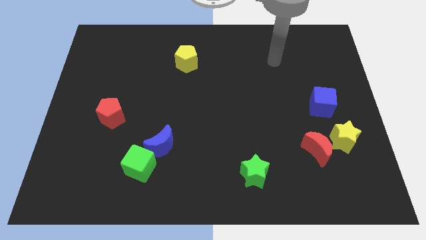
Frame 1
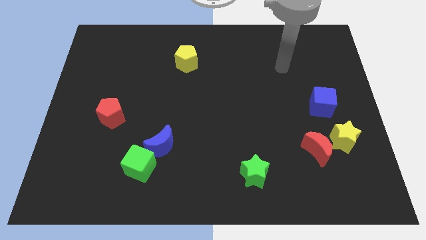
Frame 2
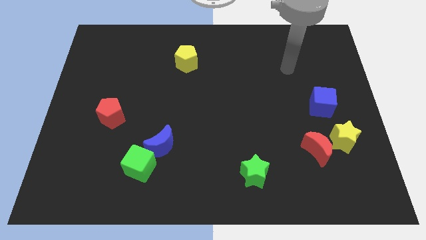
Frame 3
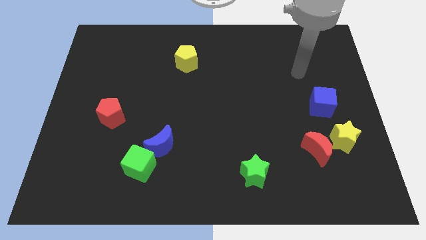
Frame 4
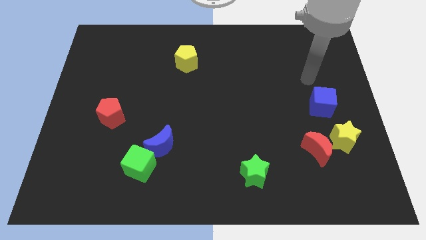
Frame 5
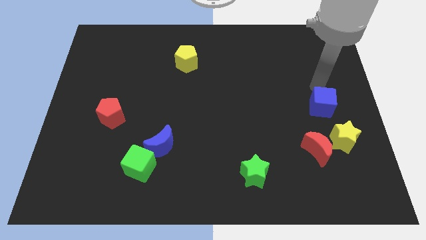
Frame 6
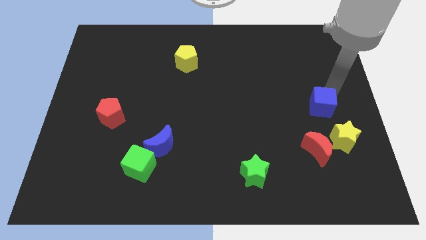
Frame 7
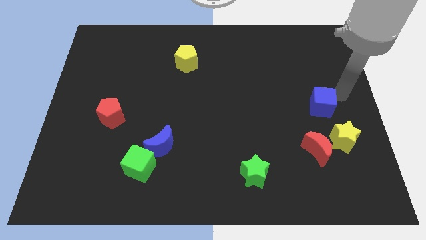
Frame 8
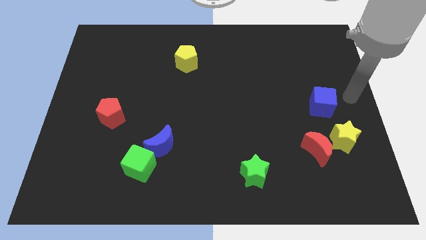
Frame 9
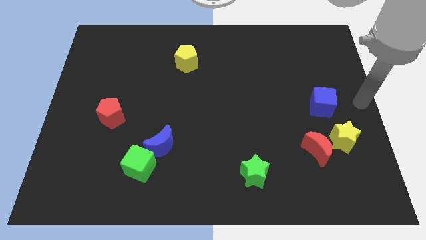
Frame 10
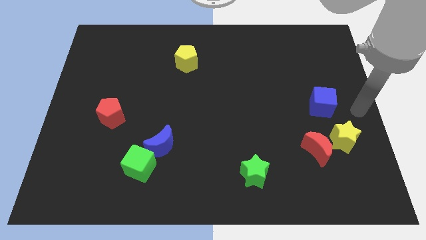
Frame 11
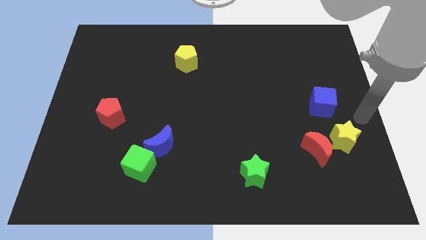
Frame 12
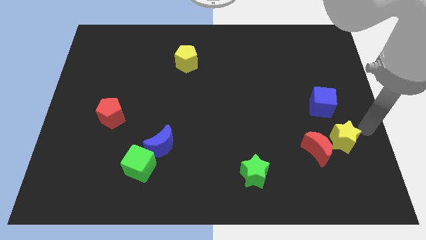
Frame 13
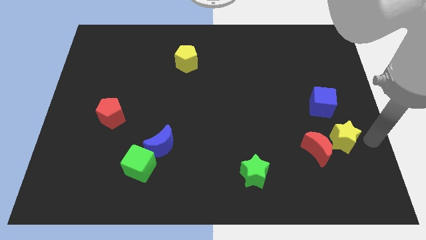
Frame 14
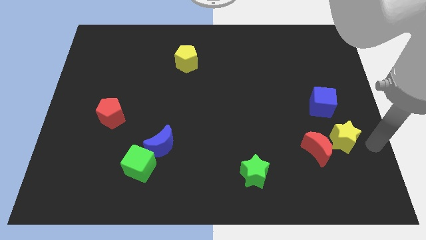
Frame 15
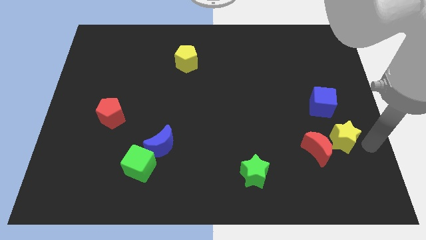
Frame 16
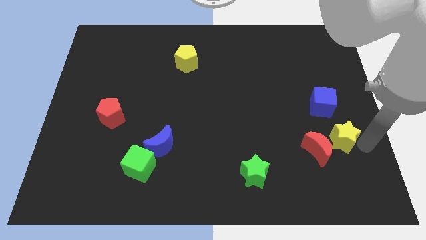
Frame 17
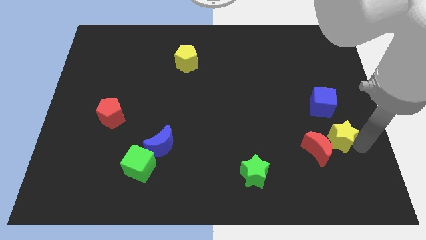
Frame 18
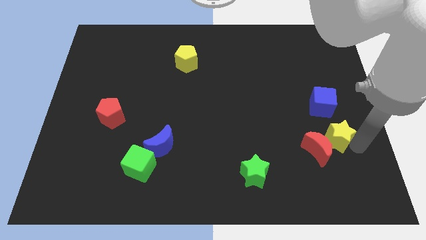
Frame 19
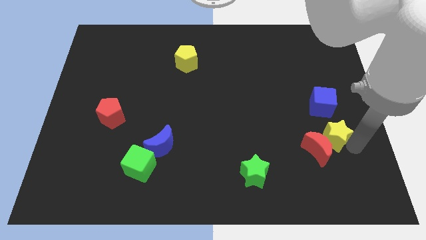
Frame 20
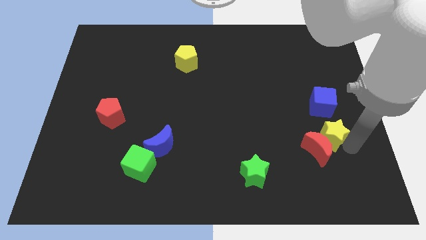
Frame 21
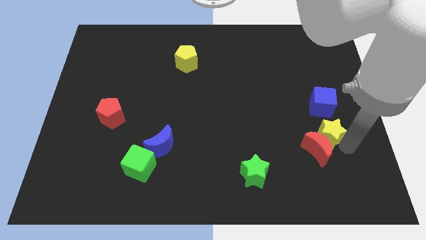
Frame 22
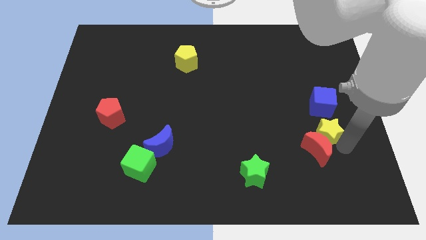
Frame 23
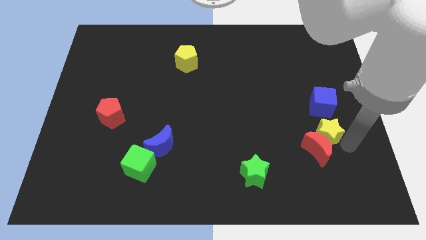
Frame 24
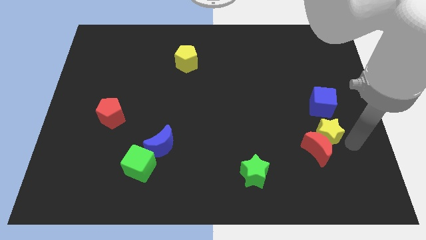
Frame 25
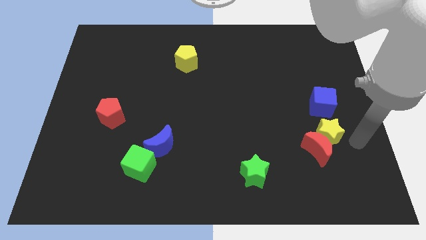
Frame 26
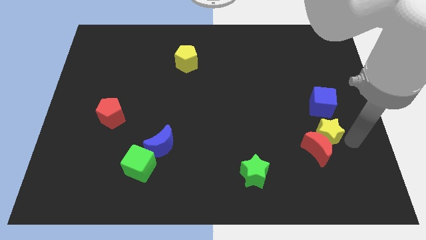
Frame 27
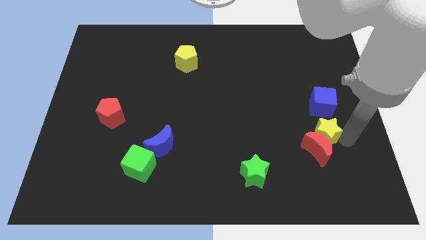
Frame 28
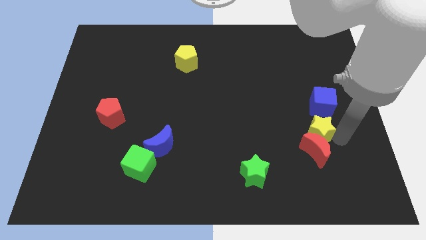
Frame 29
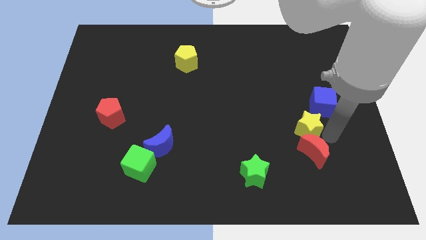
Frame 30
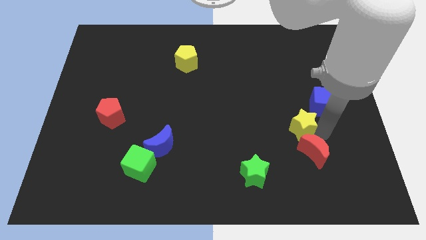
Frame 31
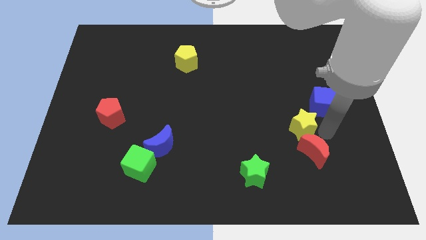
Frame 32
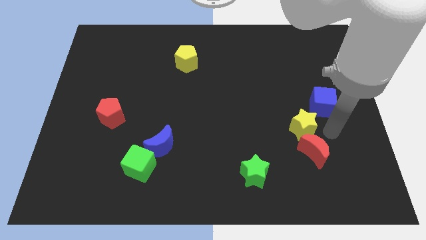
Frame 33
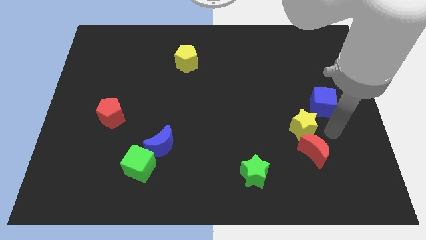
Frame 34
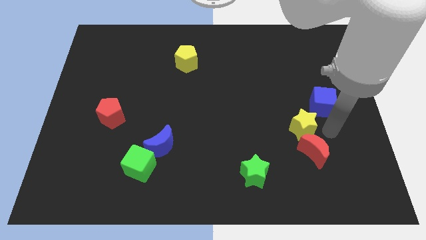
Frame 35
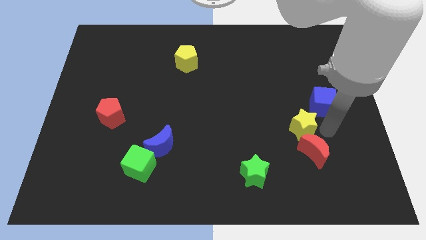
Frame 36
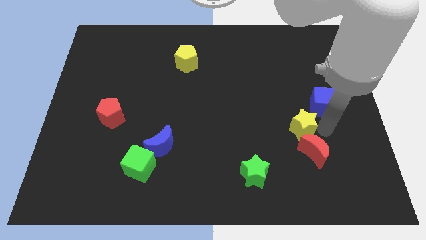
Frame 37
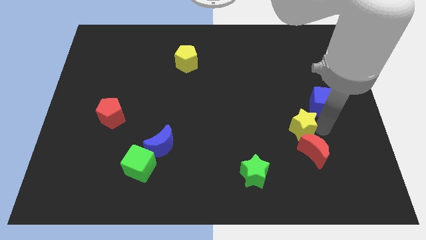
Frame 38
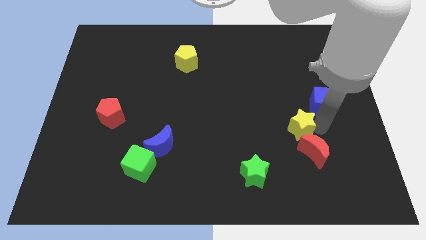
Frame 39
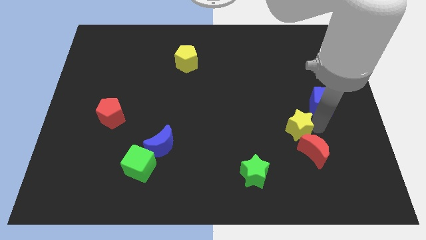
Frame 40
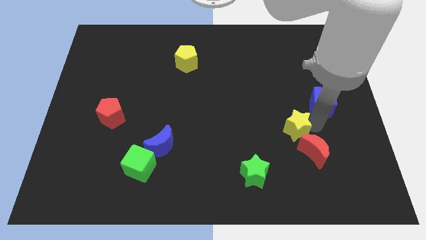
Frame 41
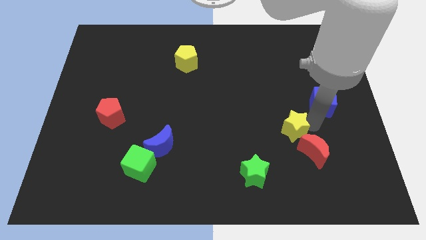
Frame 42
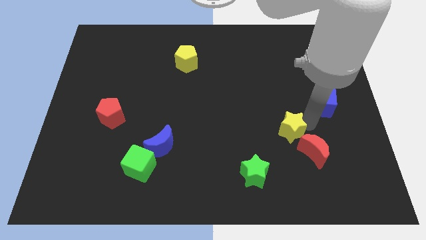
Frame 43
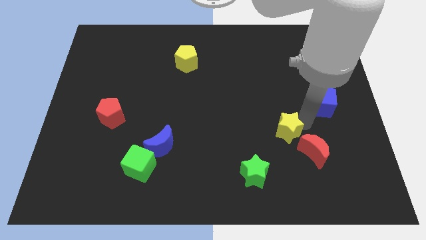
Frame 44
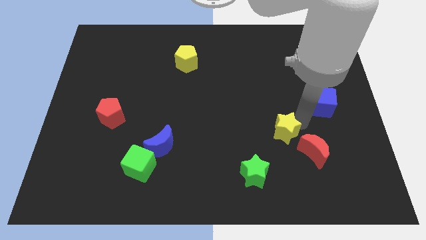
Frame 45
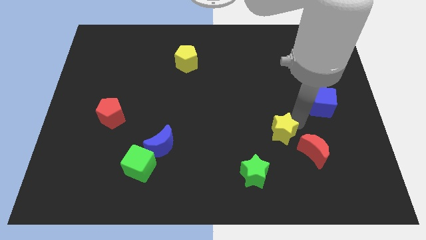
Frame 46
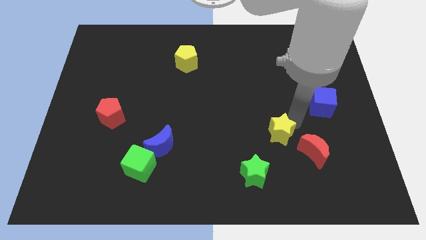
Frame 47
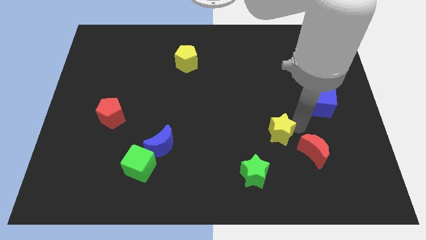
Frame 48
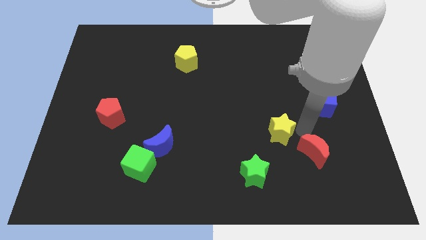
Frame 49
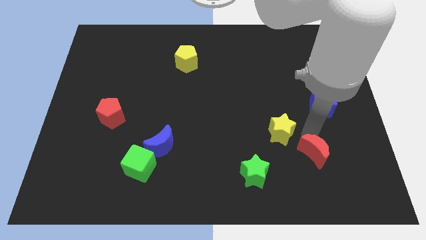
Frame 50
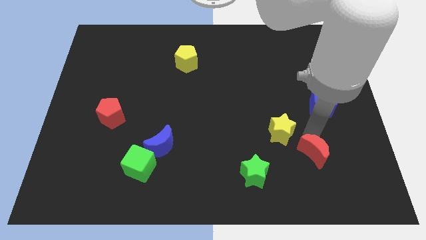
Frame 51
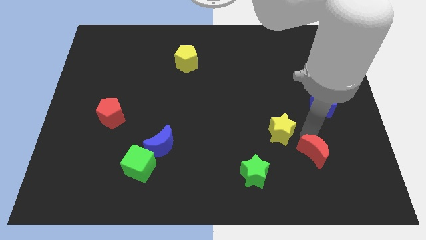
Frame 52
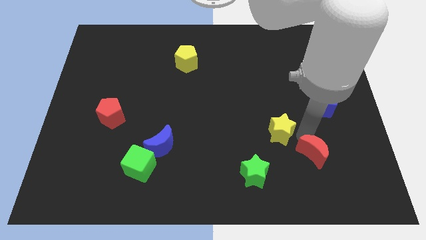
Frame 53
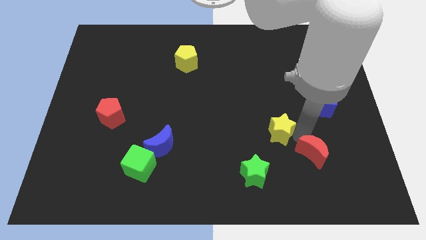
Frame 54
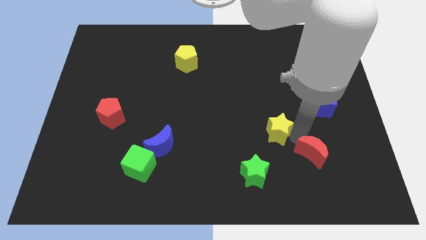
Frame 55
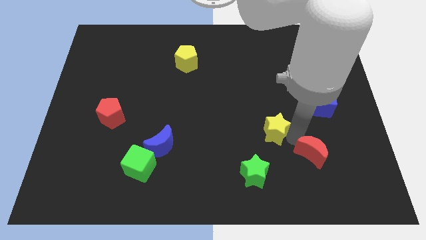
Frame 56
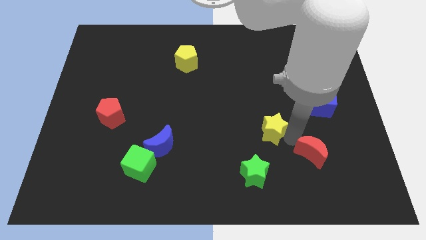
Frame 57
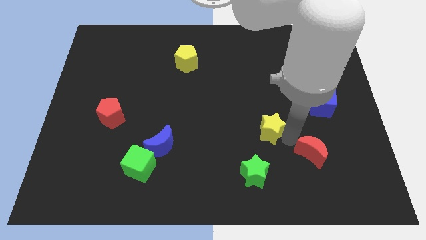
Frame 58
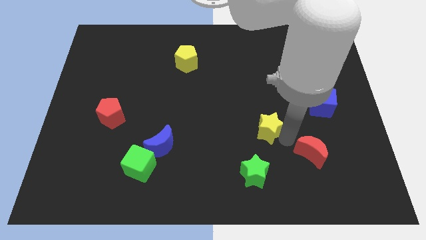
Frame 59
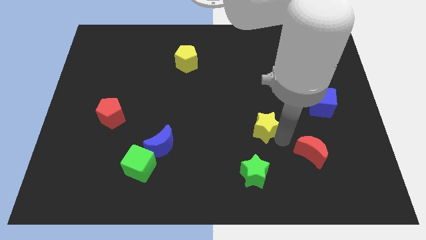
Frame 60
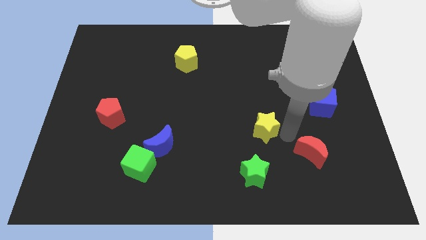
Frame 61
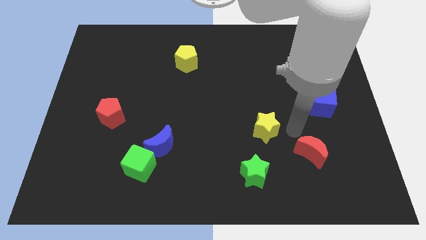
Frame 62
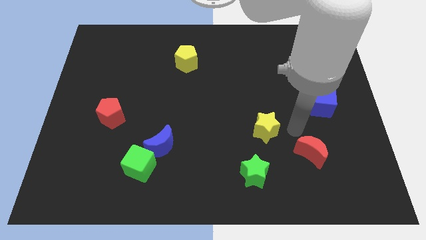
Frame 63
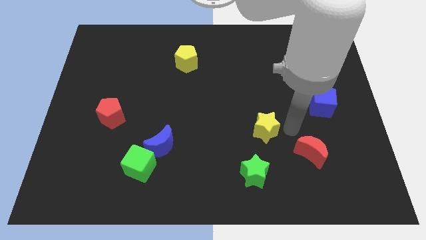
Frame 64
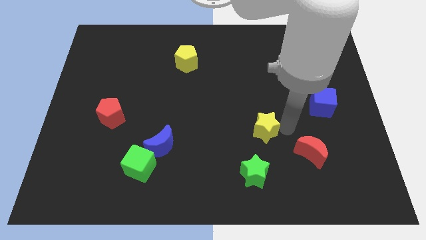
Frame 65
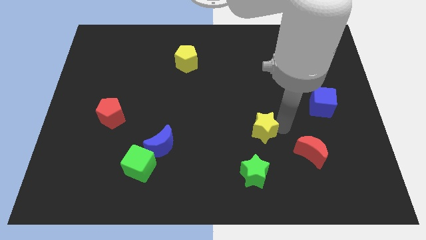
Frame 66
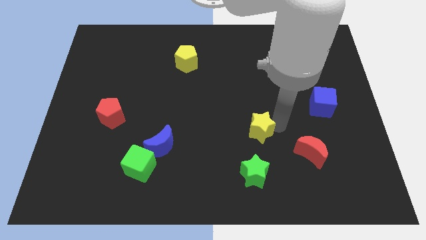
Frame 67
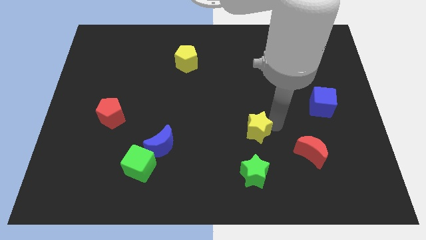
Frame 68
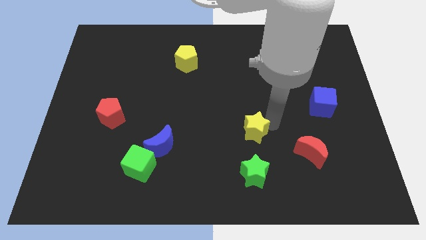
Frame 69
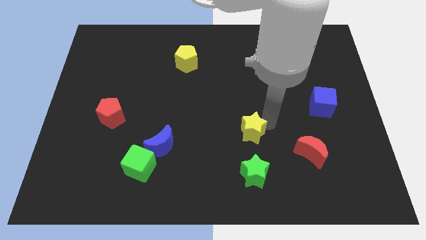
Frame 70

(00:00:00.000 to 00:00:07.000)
slide the yellow star left

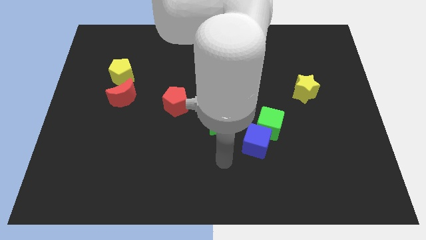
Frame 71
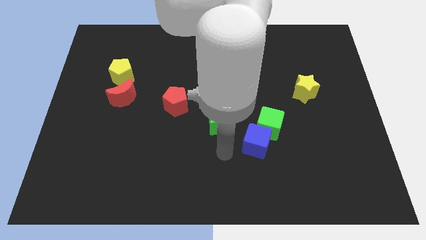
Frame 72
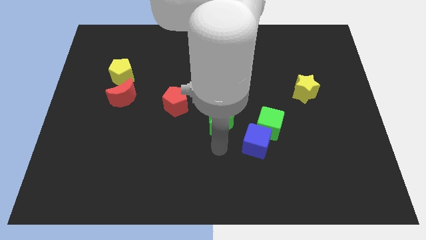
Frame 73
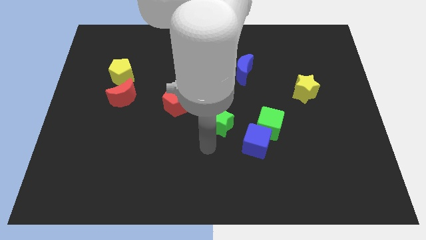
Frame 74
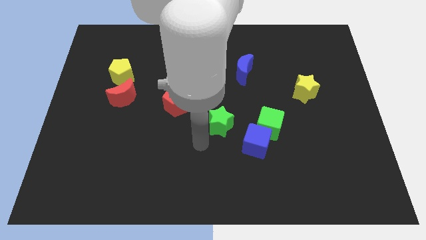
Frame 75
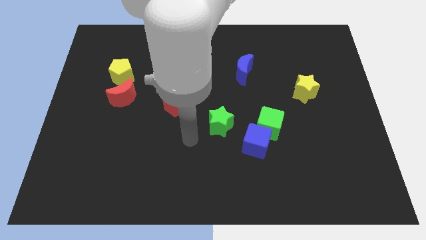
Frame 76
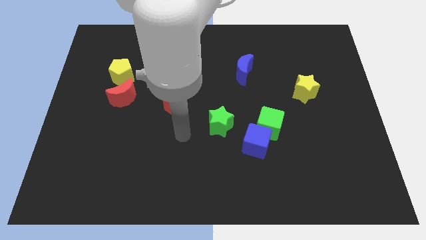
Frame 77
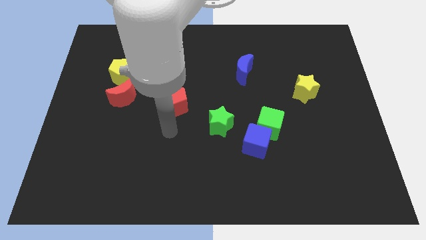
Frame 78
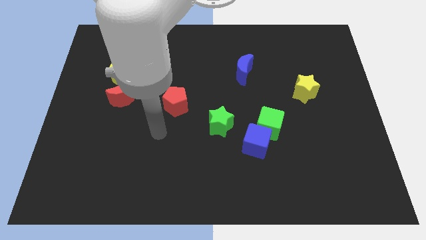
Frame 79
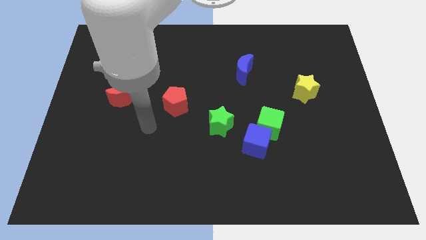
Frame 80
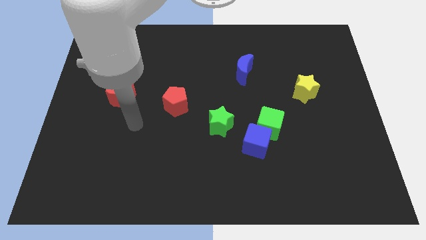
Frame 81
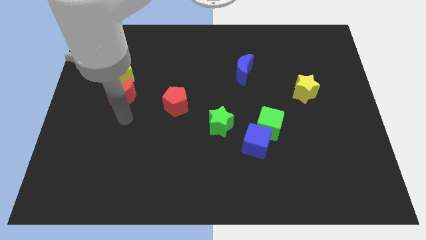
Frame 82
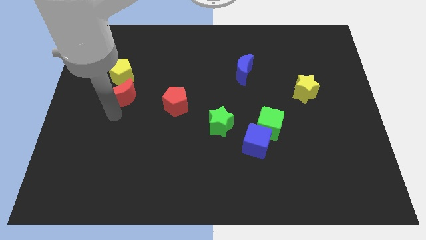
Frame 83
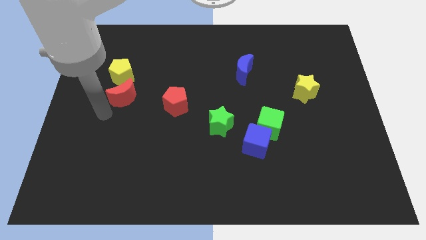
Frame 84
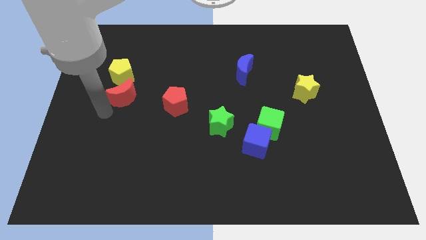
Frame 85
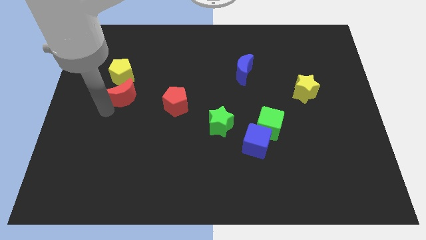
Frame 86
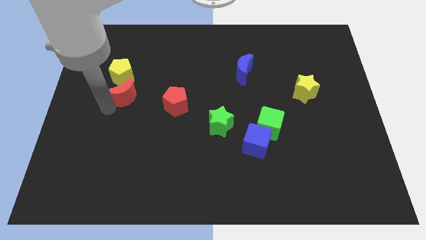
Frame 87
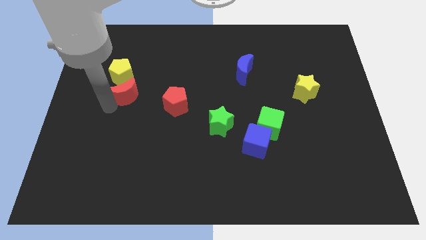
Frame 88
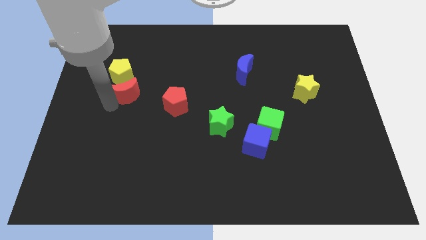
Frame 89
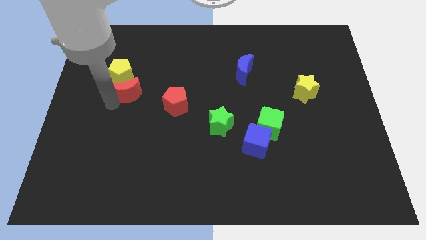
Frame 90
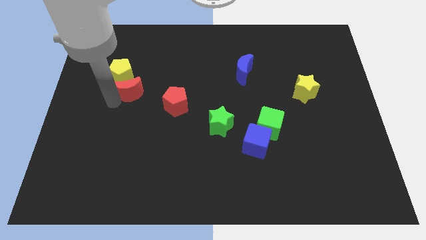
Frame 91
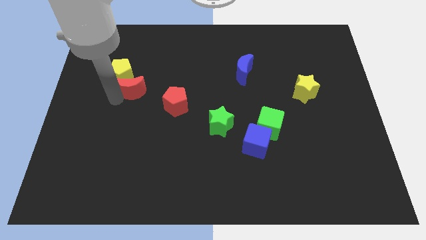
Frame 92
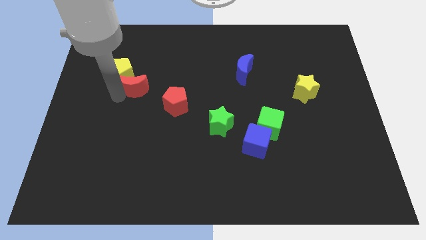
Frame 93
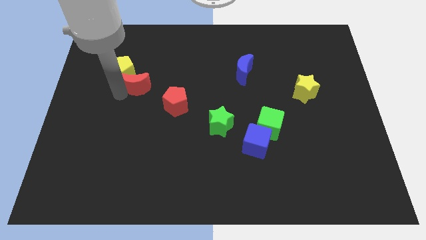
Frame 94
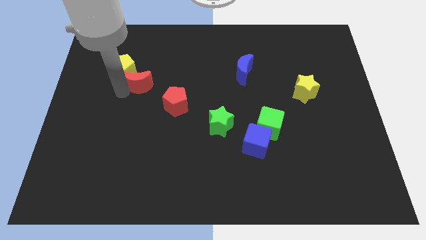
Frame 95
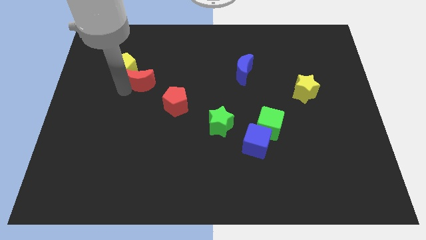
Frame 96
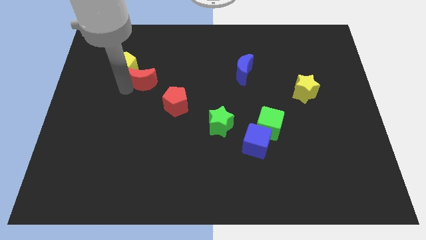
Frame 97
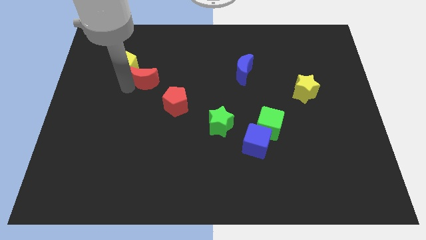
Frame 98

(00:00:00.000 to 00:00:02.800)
slightly push the red moon upwards and right
